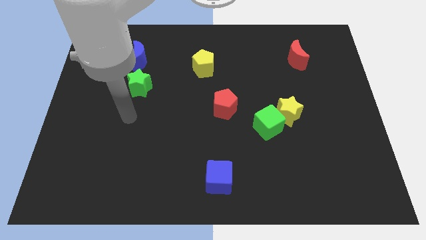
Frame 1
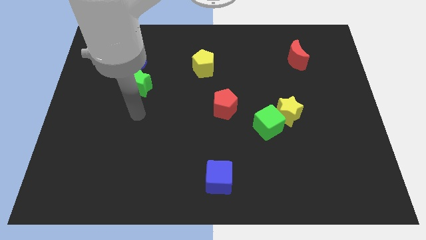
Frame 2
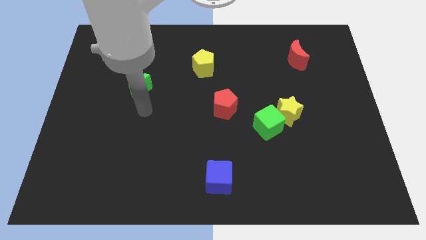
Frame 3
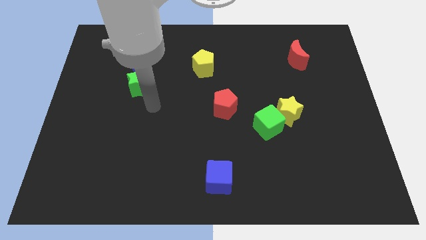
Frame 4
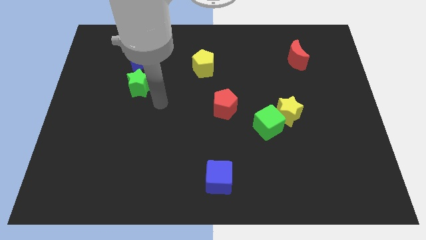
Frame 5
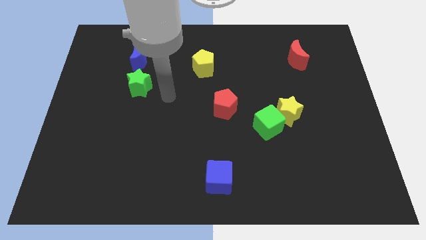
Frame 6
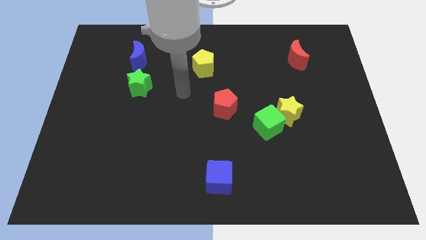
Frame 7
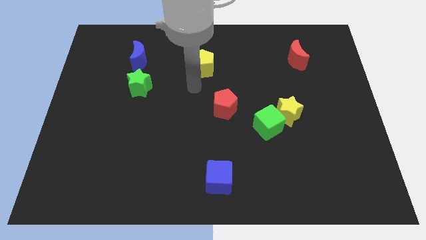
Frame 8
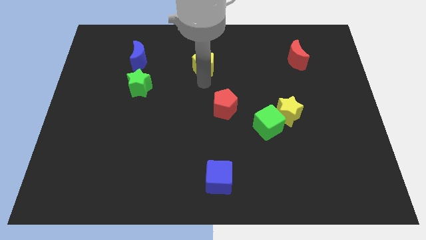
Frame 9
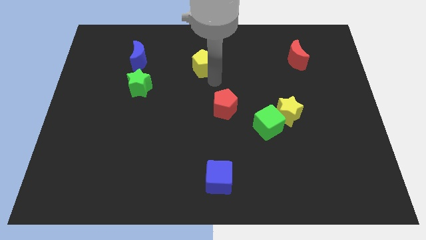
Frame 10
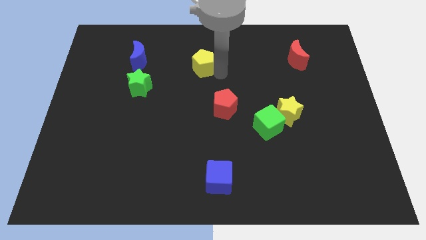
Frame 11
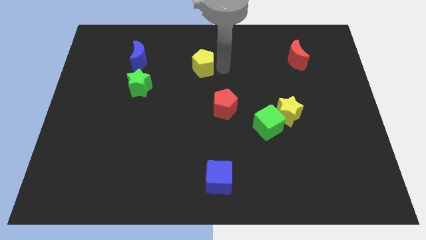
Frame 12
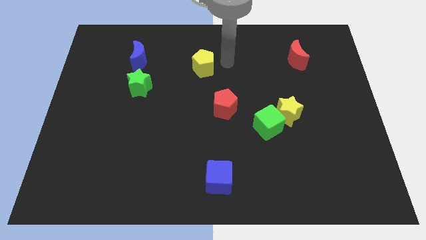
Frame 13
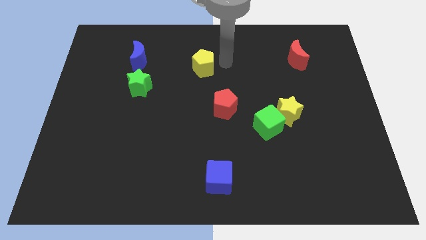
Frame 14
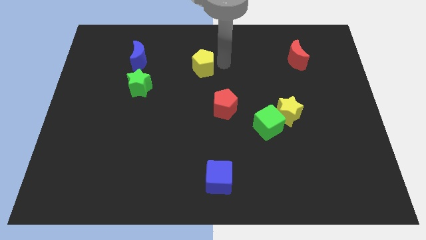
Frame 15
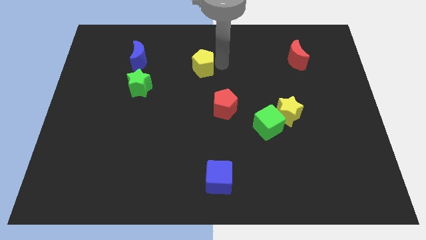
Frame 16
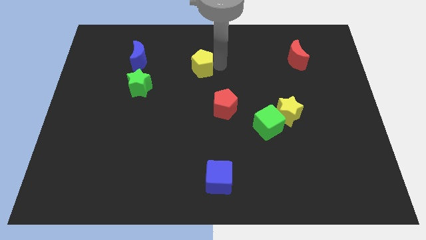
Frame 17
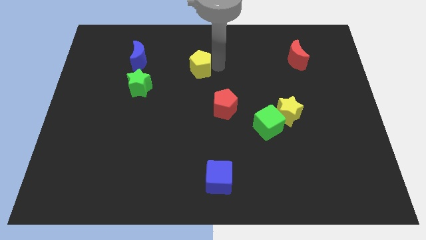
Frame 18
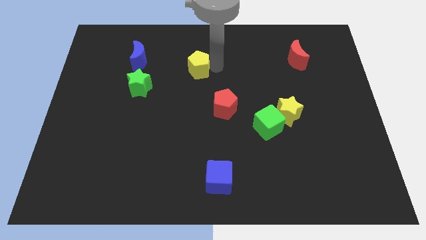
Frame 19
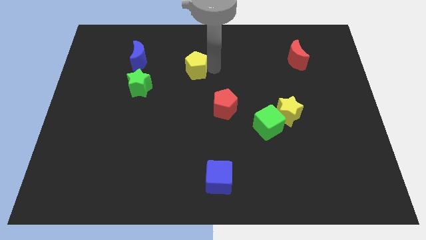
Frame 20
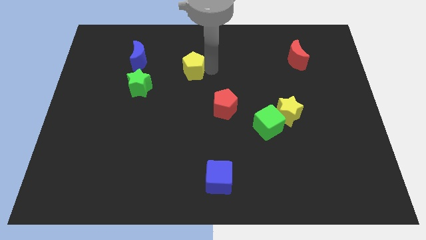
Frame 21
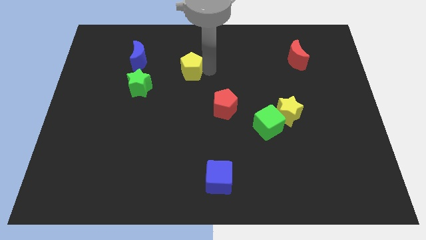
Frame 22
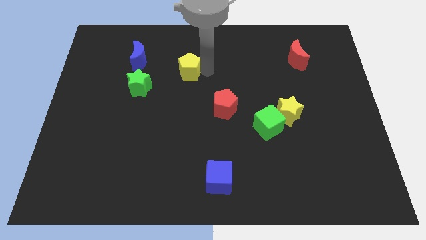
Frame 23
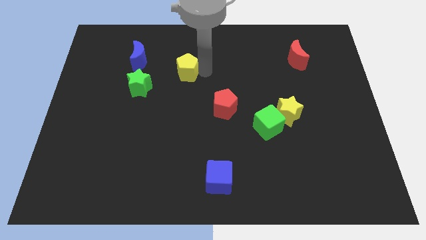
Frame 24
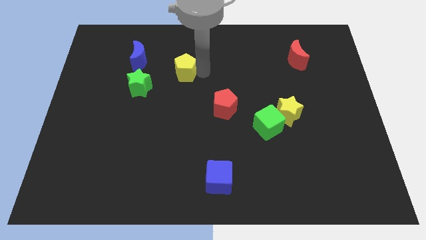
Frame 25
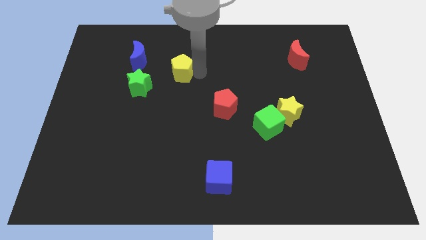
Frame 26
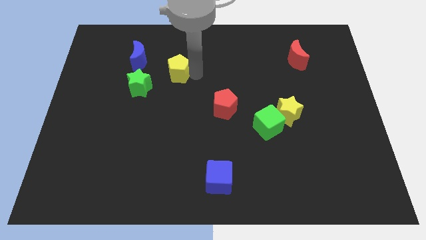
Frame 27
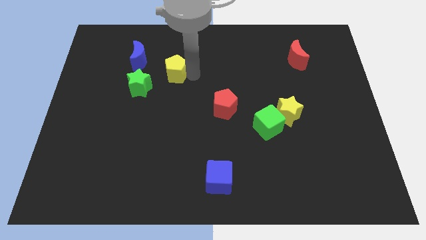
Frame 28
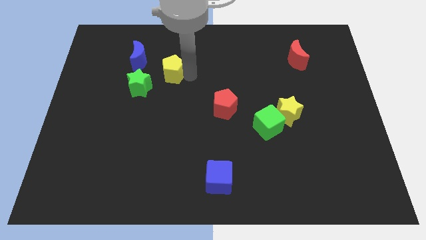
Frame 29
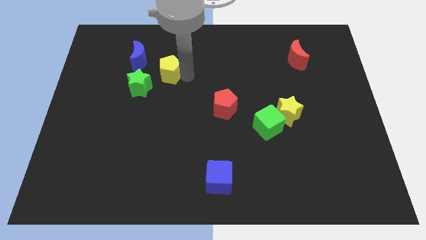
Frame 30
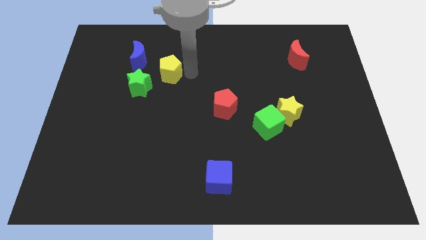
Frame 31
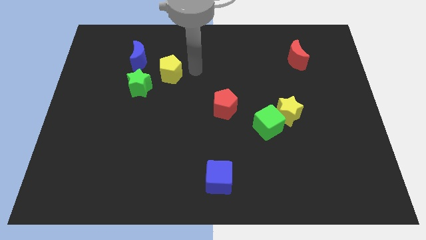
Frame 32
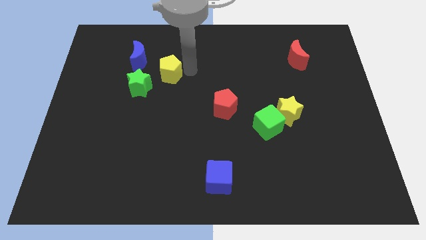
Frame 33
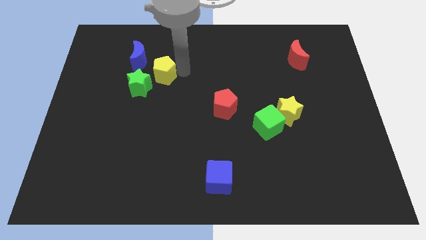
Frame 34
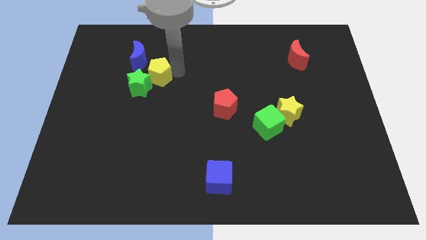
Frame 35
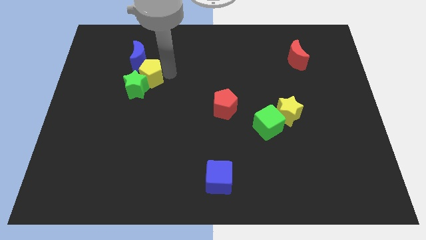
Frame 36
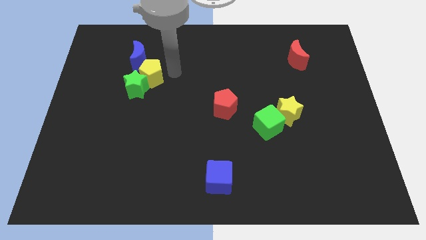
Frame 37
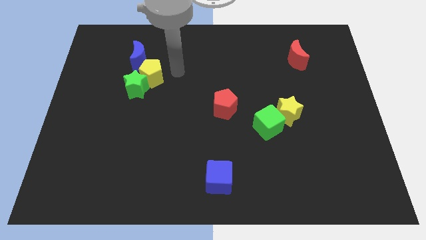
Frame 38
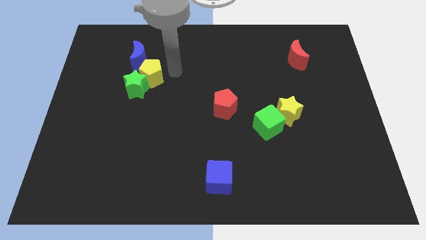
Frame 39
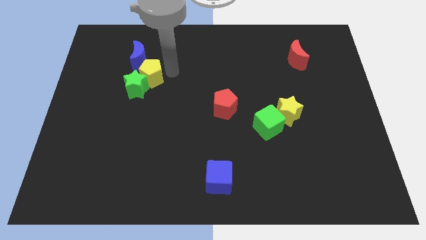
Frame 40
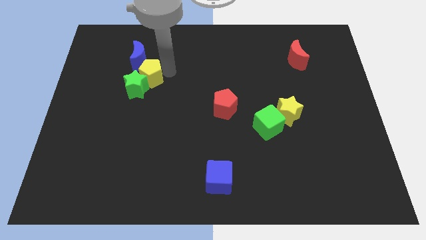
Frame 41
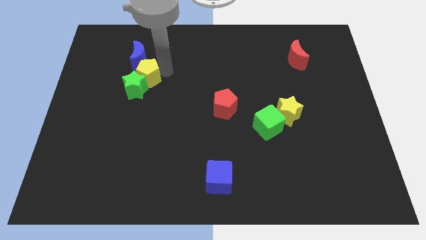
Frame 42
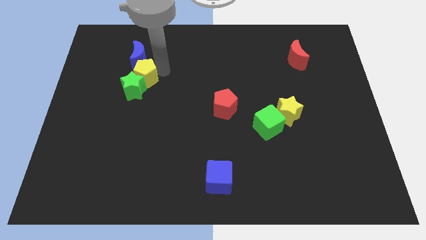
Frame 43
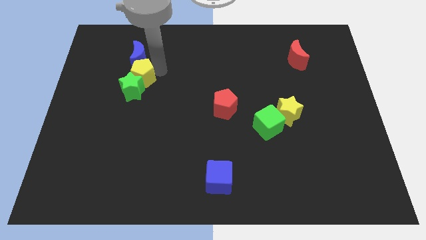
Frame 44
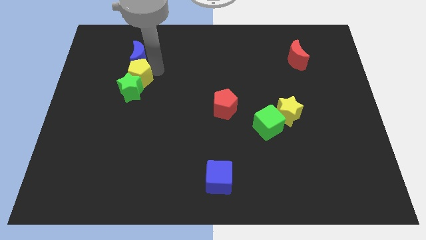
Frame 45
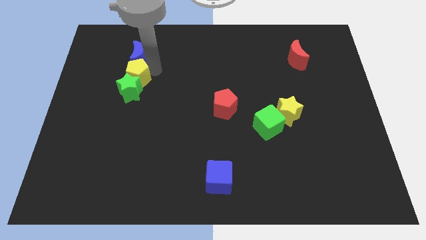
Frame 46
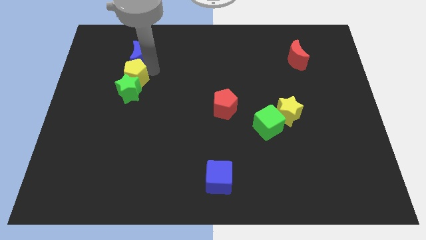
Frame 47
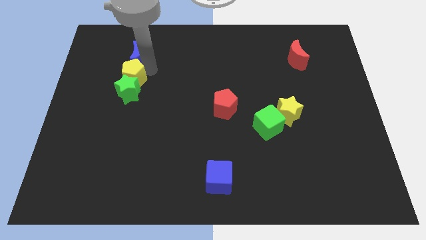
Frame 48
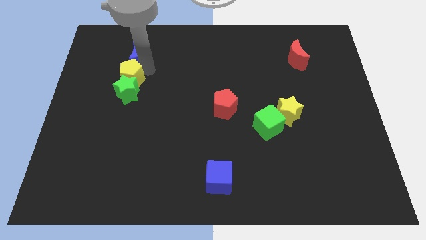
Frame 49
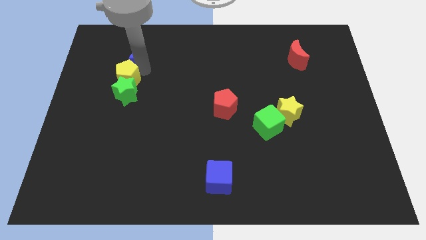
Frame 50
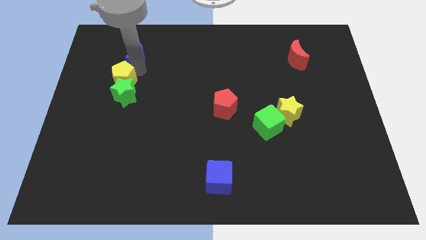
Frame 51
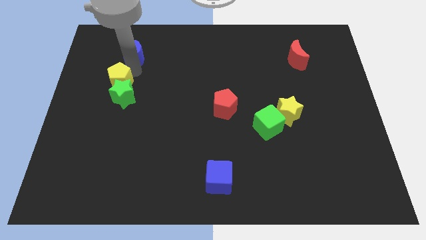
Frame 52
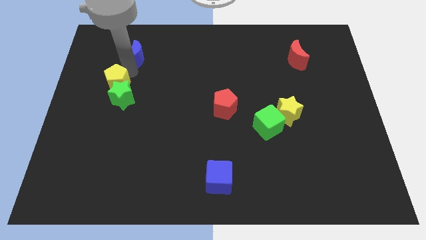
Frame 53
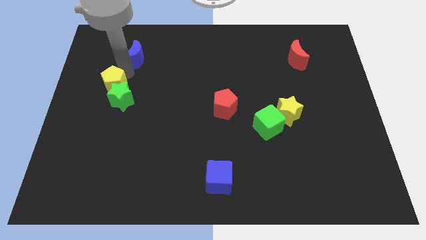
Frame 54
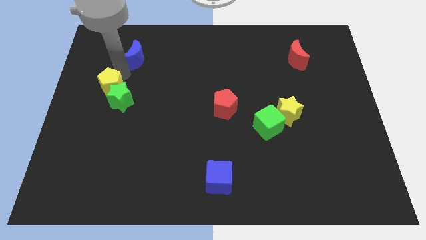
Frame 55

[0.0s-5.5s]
move the yellow pentagon to the left of the green star

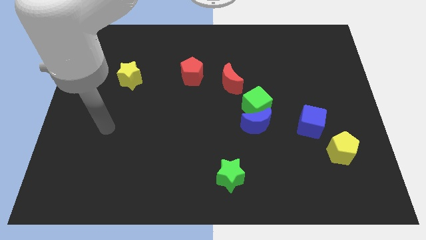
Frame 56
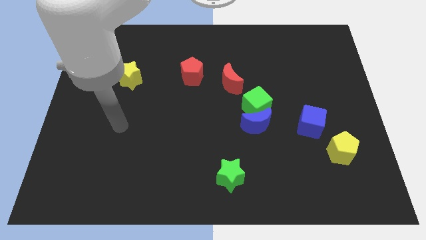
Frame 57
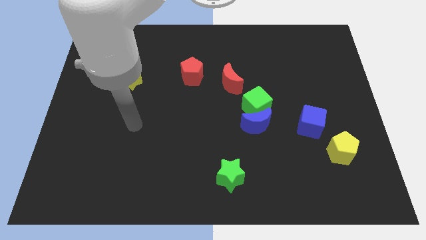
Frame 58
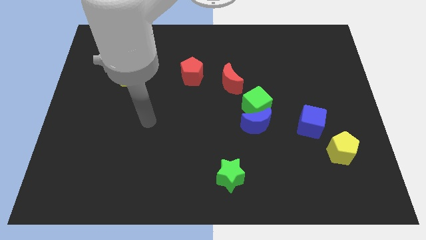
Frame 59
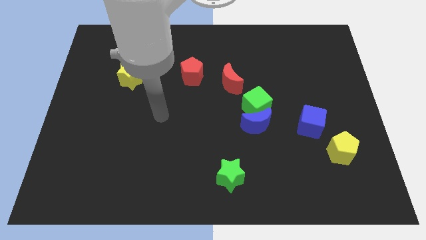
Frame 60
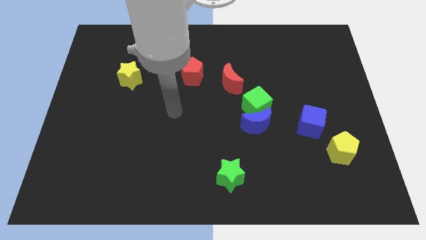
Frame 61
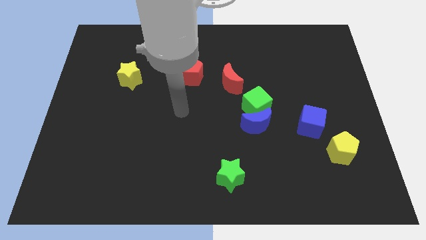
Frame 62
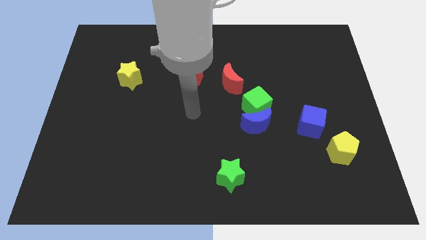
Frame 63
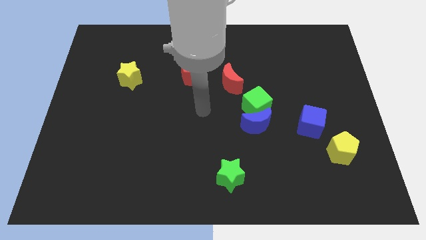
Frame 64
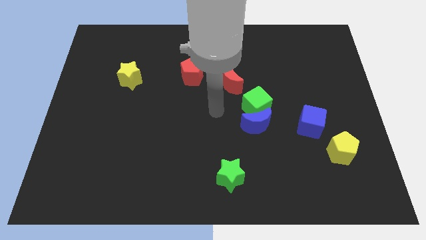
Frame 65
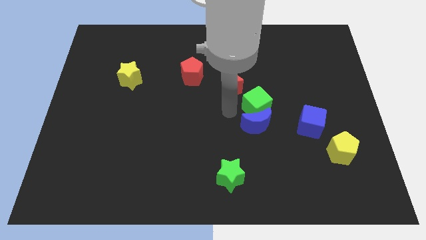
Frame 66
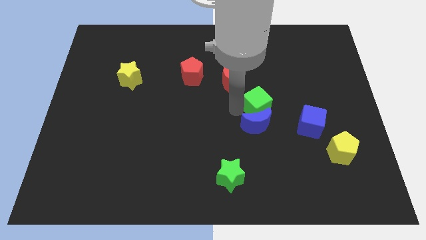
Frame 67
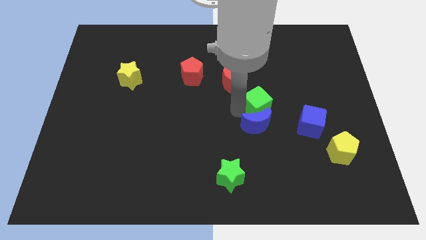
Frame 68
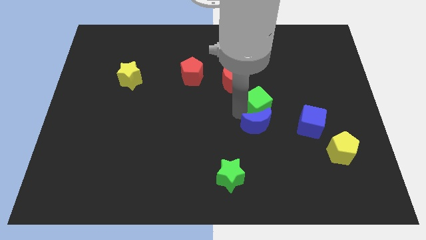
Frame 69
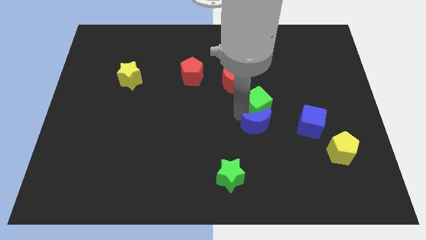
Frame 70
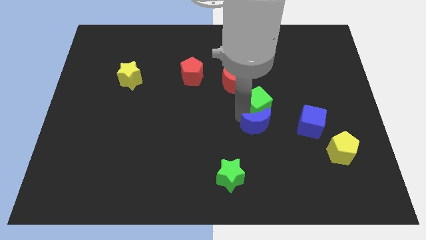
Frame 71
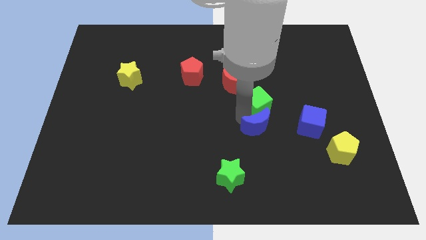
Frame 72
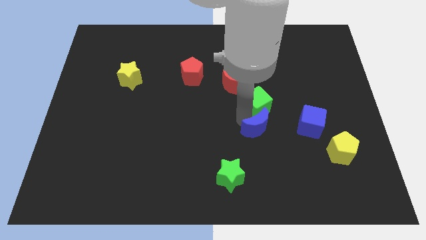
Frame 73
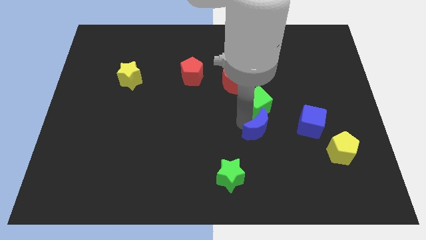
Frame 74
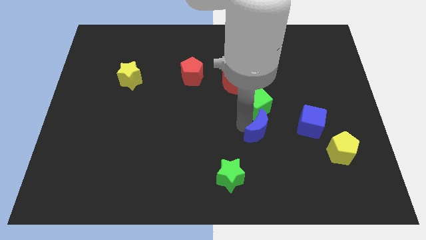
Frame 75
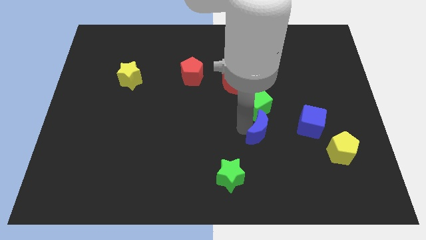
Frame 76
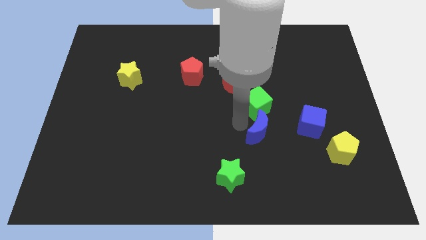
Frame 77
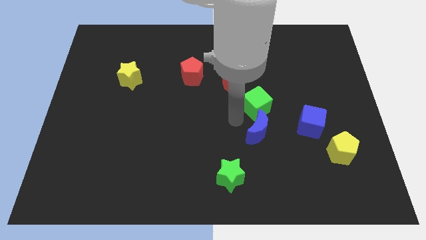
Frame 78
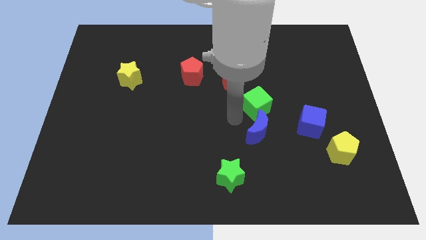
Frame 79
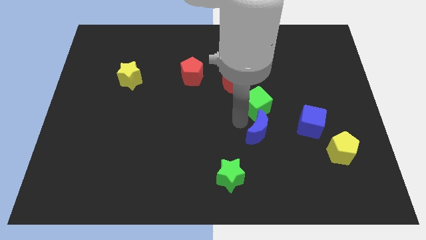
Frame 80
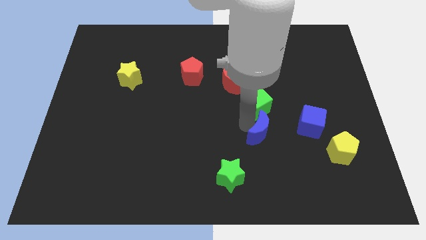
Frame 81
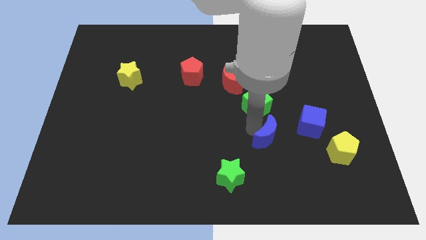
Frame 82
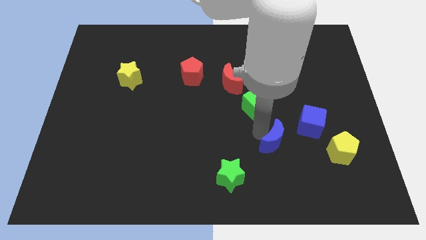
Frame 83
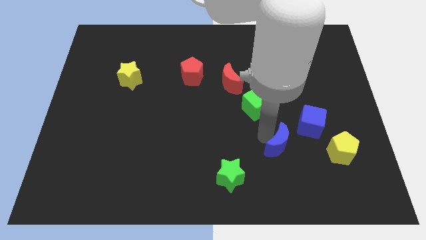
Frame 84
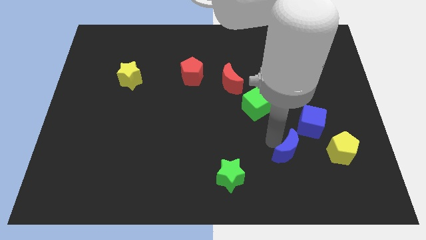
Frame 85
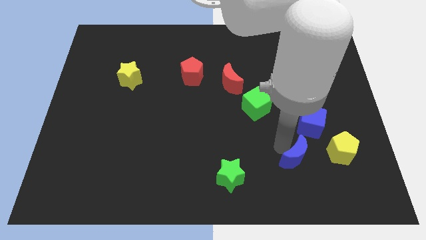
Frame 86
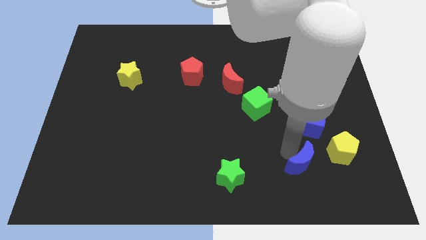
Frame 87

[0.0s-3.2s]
push the blue moon diagonally down and to the left of the yellow pentagon
